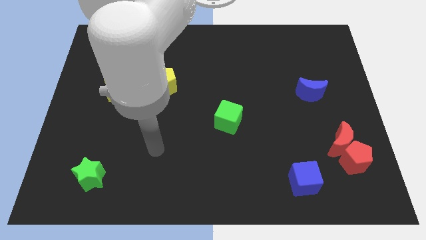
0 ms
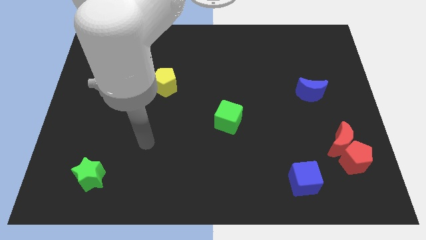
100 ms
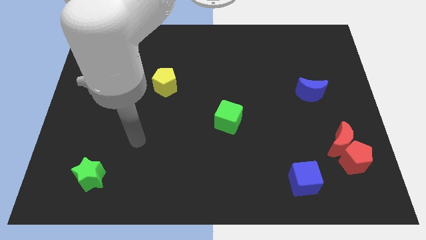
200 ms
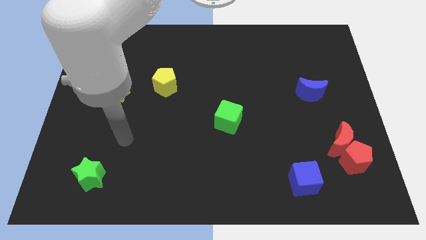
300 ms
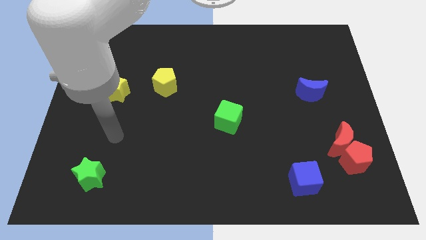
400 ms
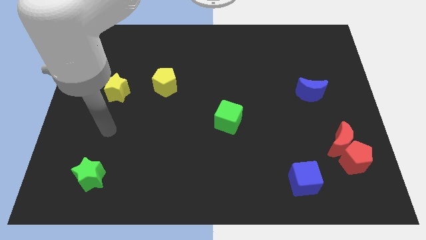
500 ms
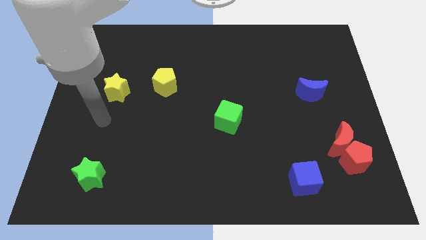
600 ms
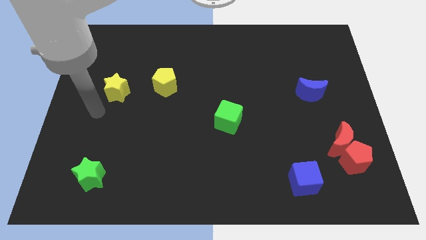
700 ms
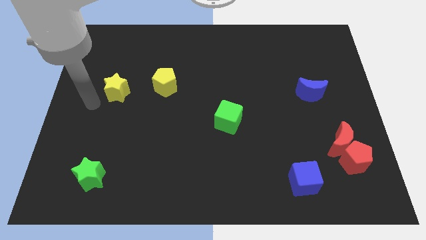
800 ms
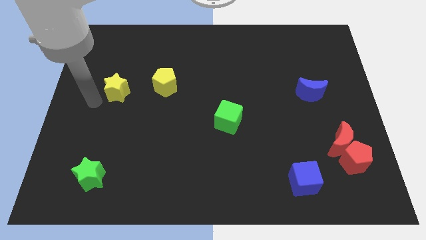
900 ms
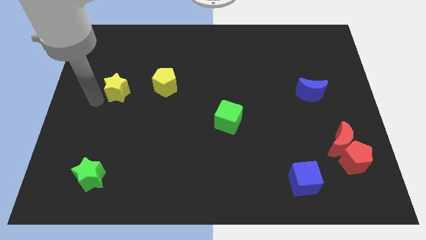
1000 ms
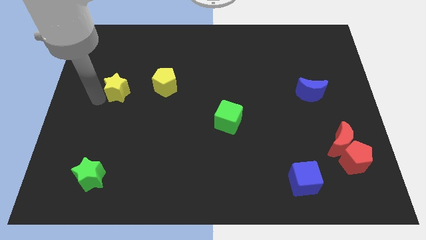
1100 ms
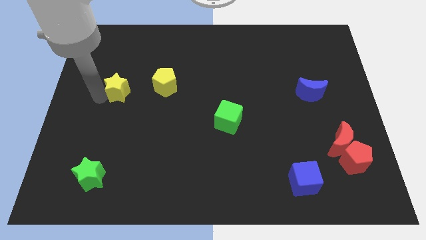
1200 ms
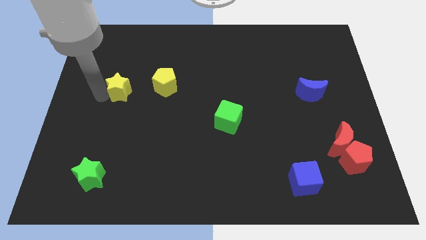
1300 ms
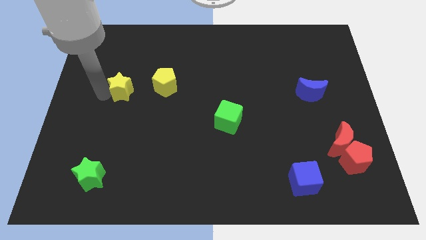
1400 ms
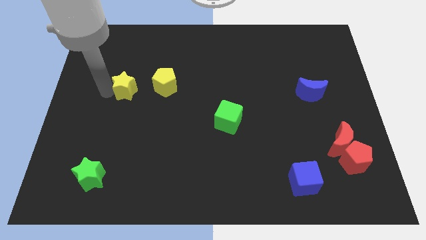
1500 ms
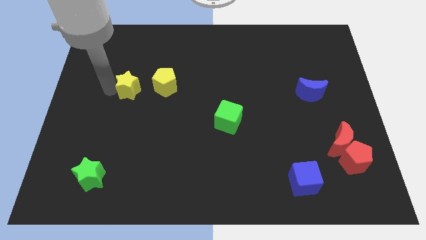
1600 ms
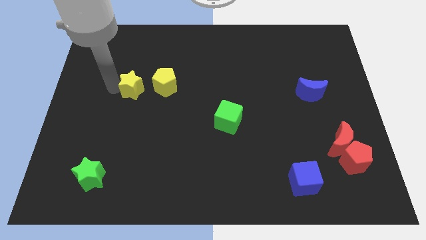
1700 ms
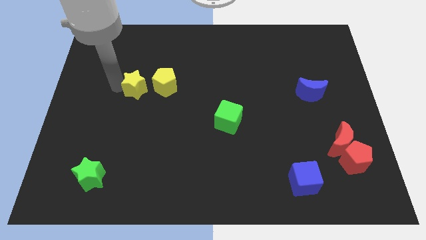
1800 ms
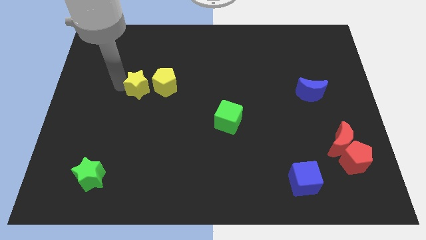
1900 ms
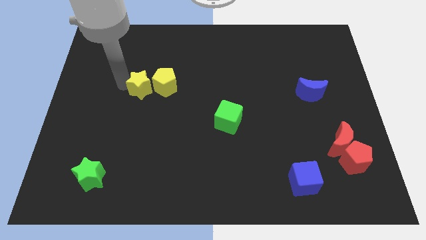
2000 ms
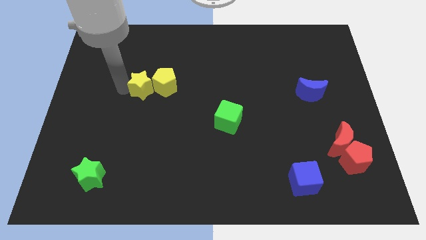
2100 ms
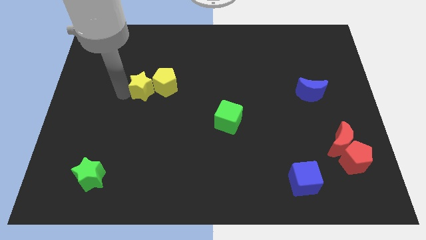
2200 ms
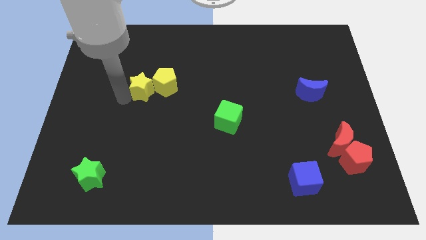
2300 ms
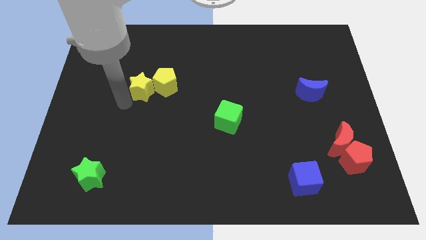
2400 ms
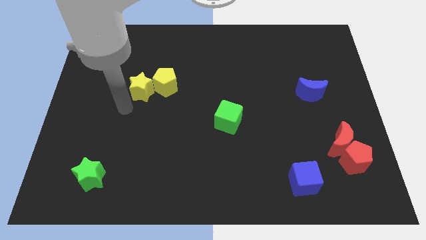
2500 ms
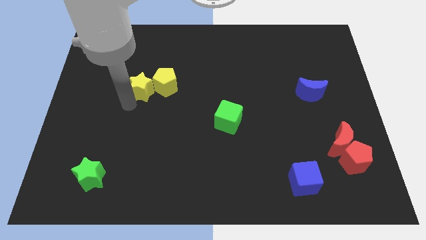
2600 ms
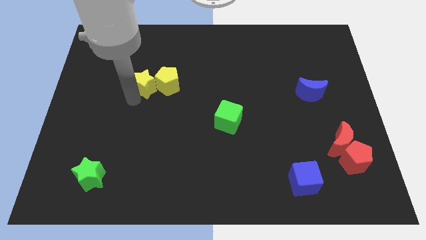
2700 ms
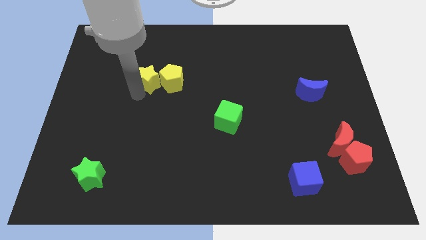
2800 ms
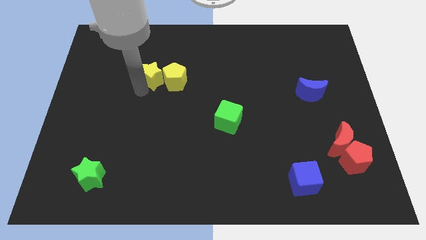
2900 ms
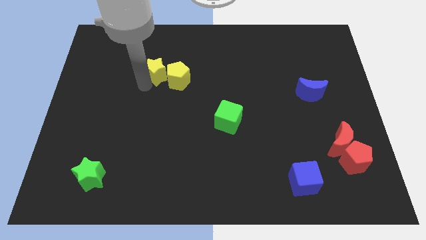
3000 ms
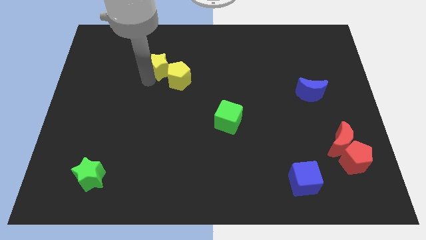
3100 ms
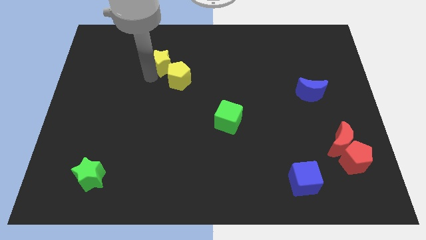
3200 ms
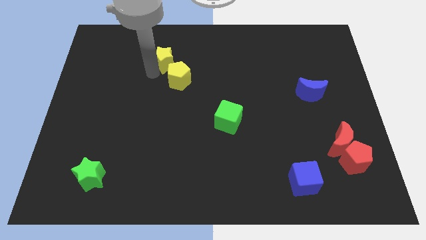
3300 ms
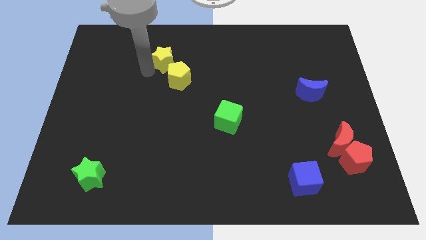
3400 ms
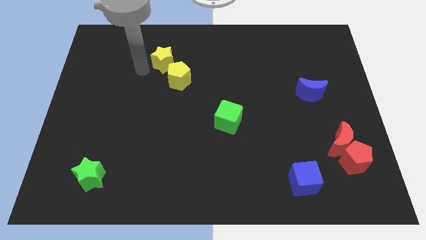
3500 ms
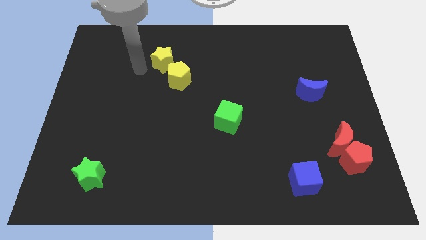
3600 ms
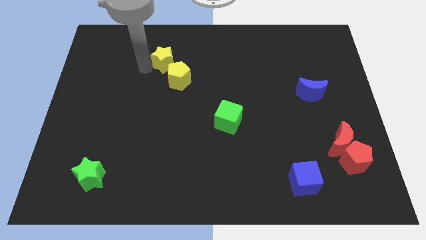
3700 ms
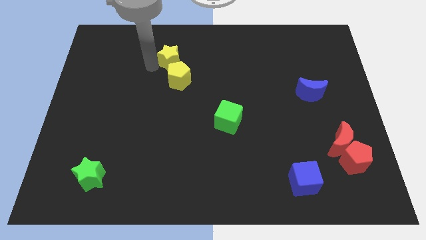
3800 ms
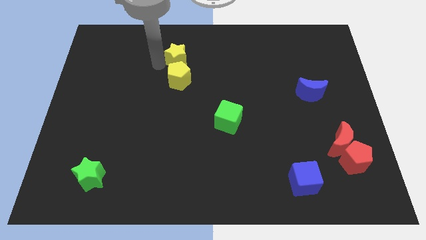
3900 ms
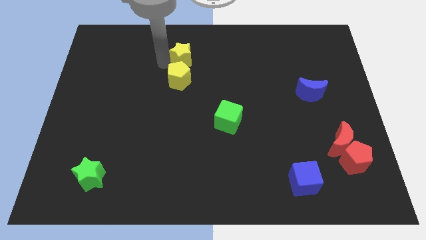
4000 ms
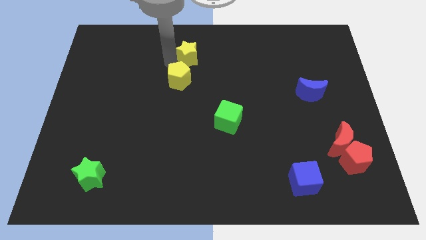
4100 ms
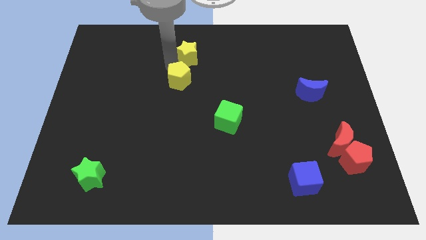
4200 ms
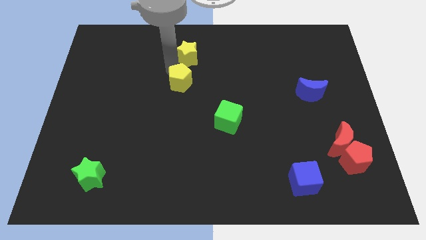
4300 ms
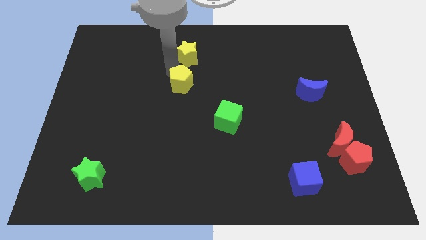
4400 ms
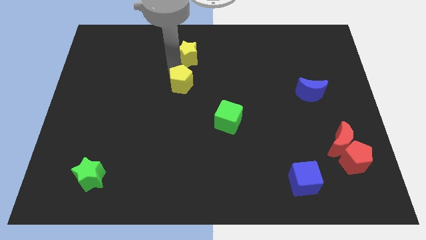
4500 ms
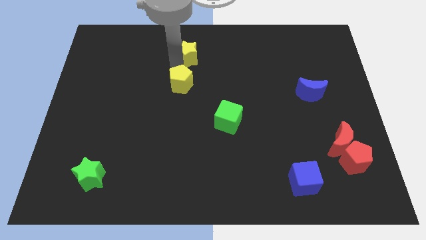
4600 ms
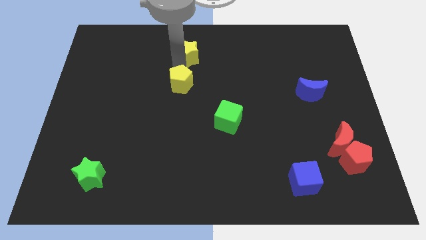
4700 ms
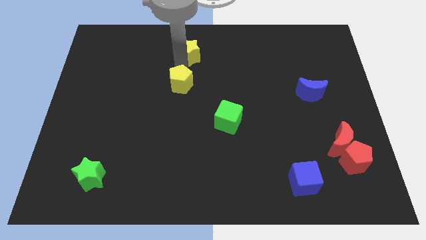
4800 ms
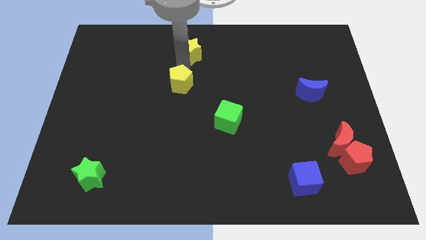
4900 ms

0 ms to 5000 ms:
move the yellow star to the towards your base

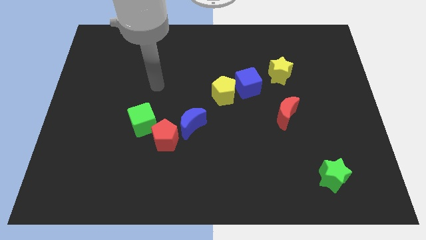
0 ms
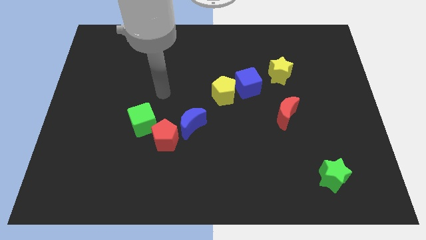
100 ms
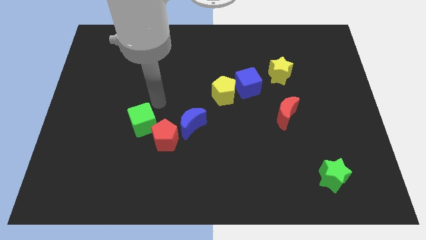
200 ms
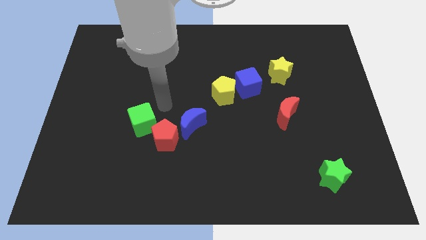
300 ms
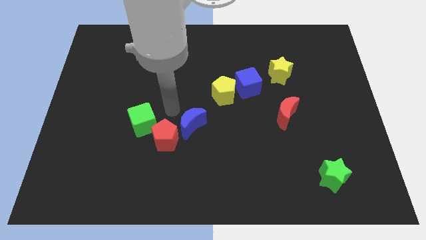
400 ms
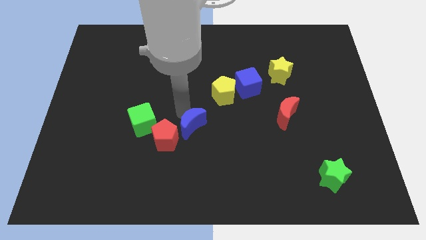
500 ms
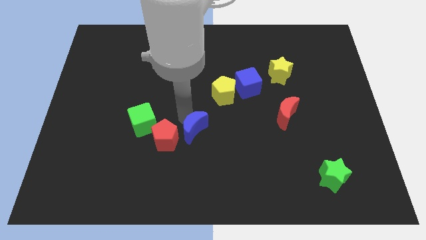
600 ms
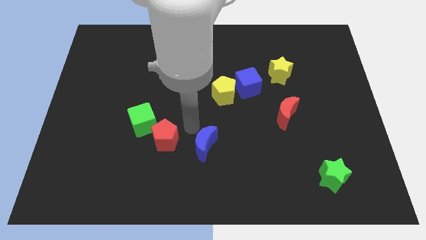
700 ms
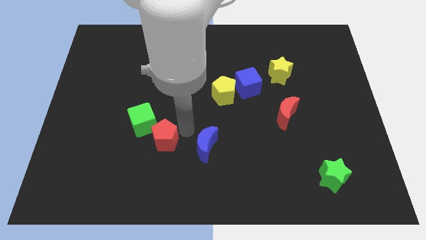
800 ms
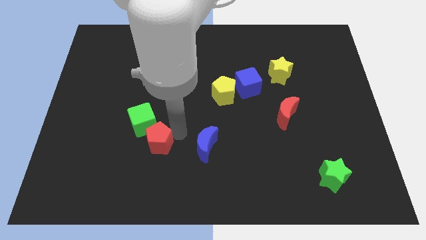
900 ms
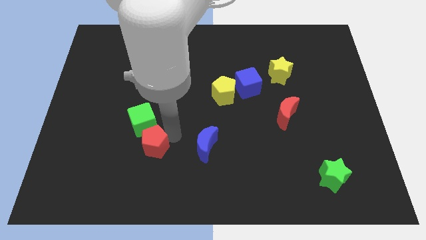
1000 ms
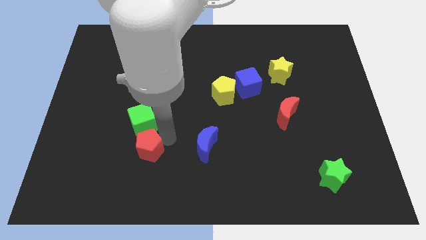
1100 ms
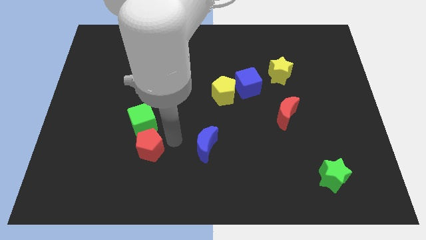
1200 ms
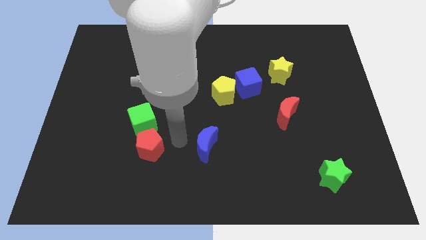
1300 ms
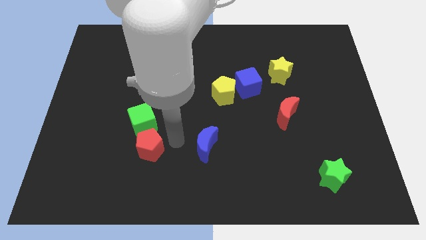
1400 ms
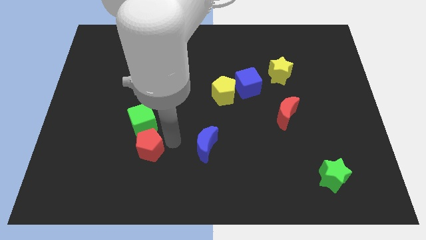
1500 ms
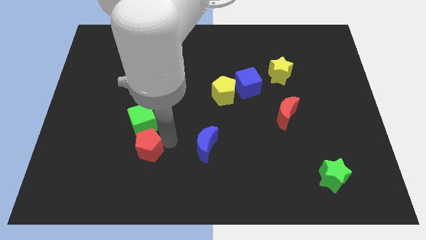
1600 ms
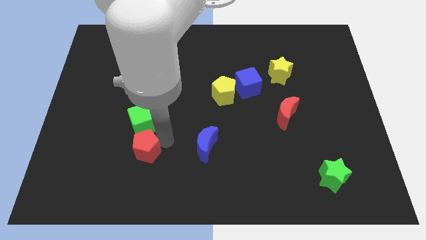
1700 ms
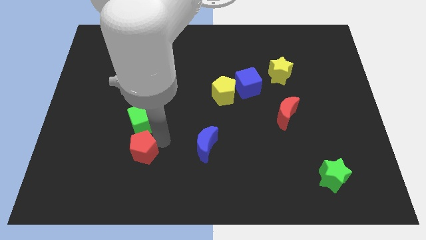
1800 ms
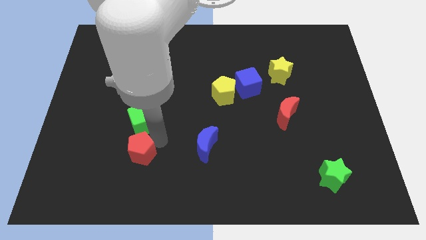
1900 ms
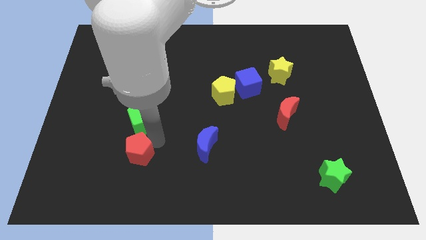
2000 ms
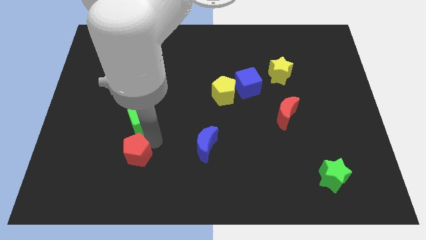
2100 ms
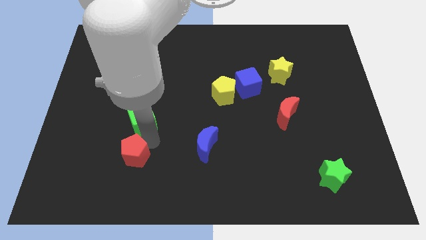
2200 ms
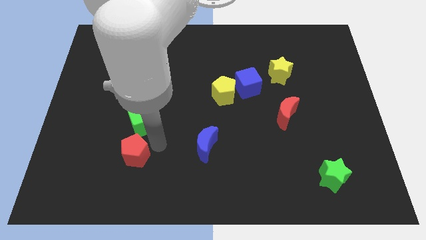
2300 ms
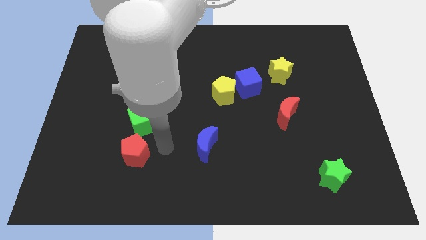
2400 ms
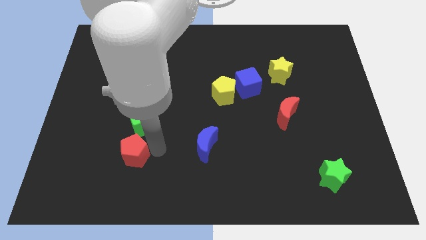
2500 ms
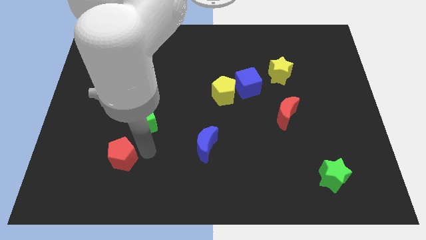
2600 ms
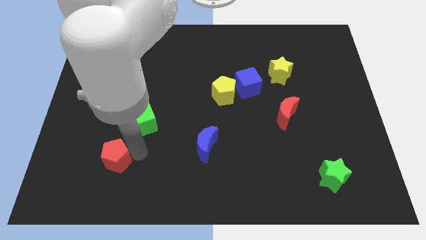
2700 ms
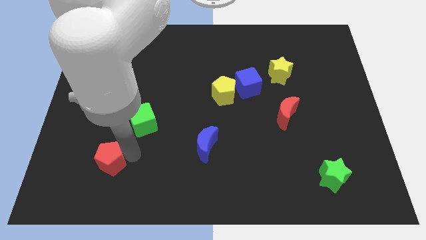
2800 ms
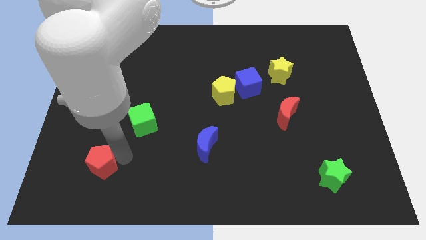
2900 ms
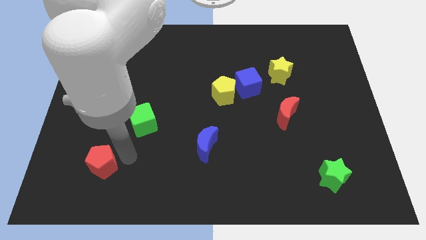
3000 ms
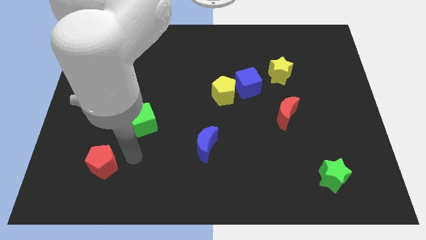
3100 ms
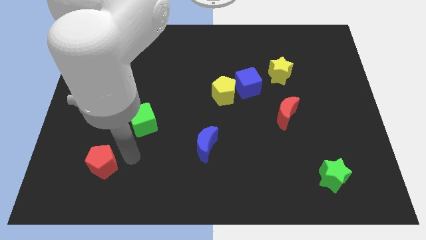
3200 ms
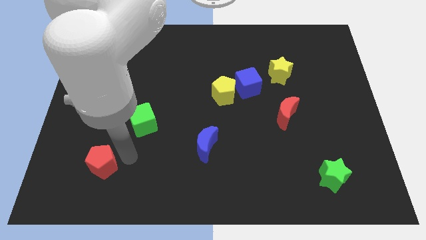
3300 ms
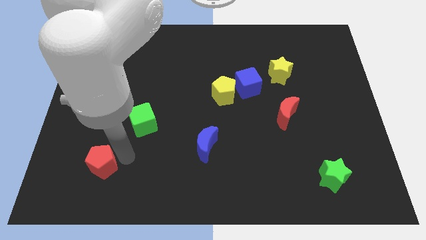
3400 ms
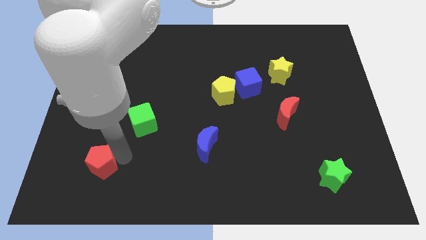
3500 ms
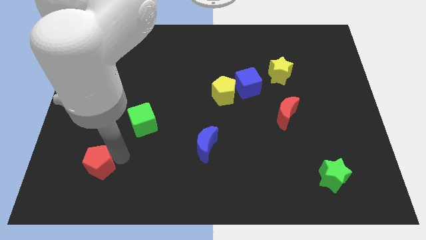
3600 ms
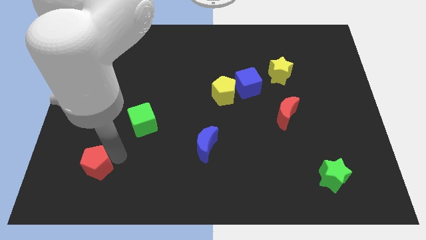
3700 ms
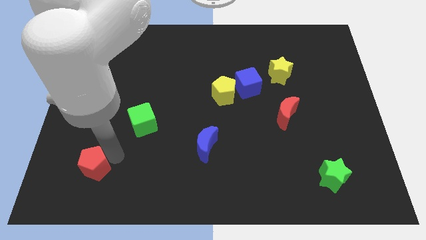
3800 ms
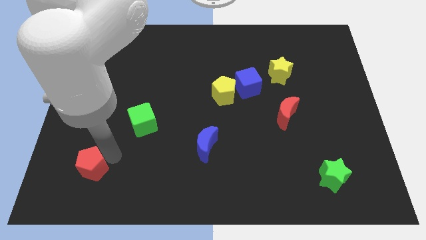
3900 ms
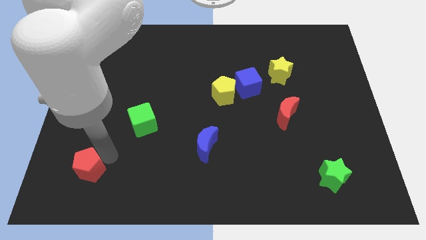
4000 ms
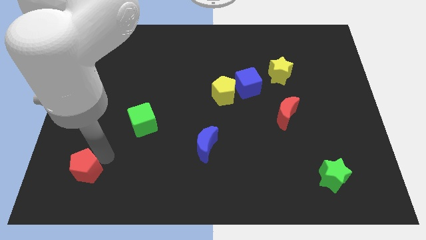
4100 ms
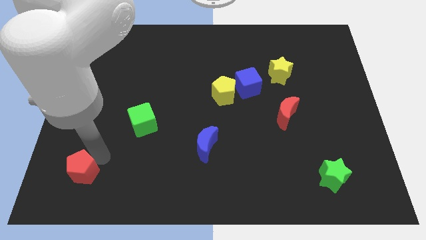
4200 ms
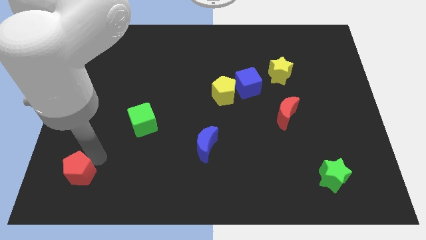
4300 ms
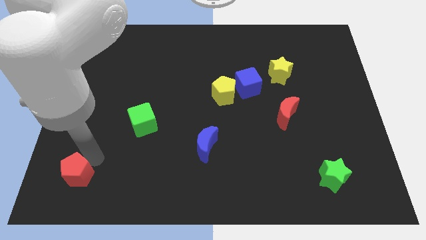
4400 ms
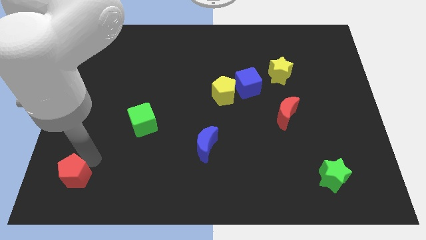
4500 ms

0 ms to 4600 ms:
move the red pentagon to the bottom left of the board
